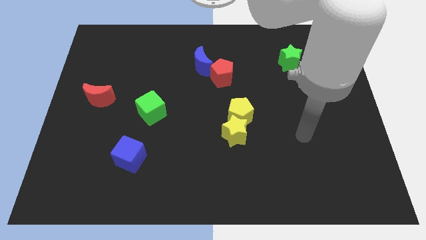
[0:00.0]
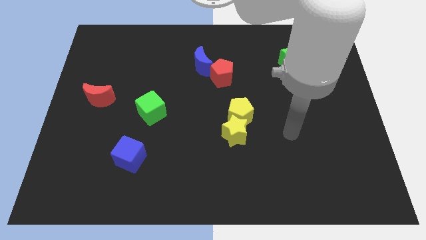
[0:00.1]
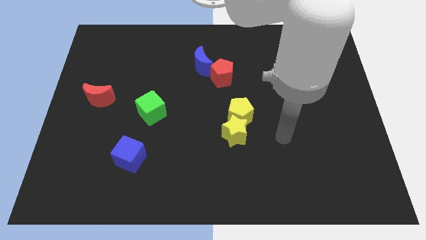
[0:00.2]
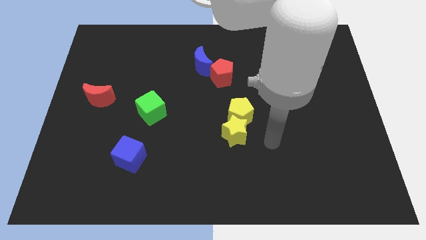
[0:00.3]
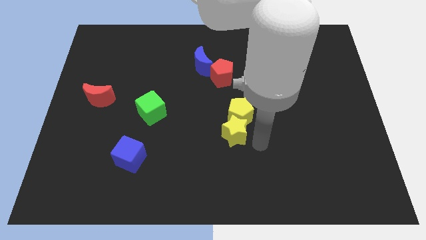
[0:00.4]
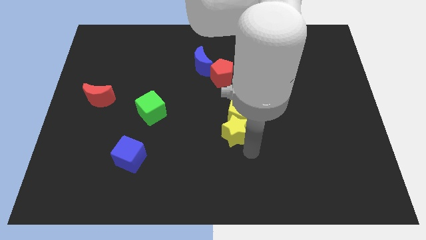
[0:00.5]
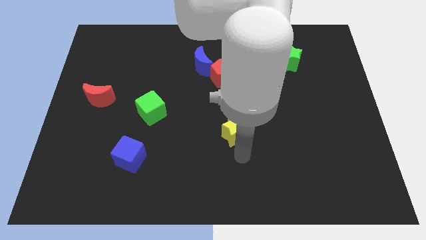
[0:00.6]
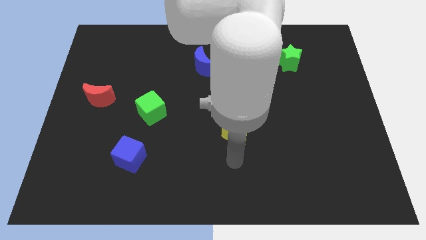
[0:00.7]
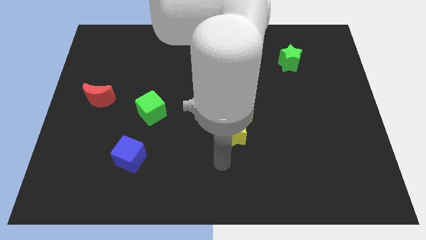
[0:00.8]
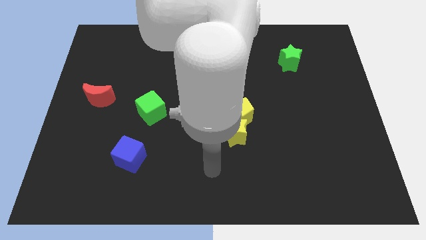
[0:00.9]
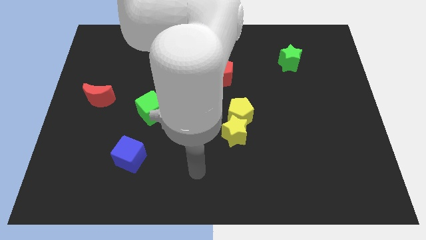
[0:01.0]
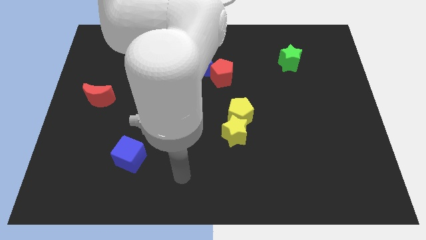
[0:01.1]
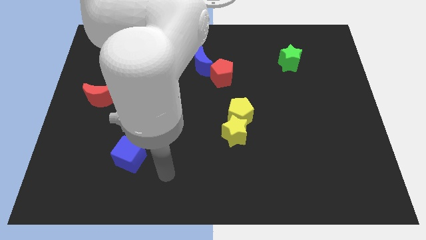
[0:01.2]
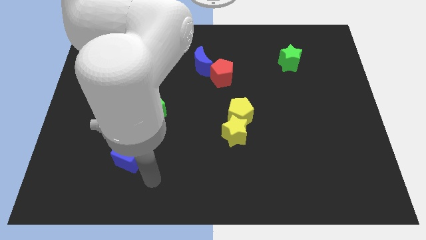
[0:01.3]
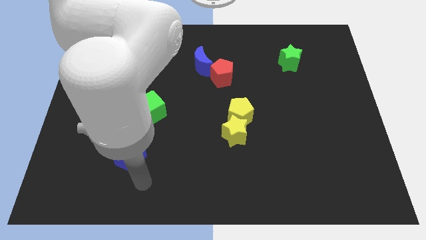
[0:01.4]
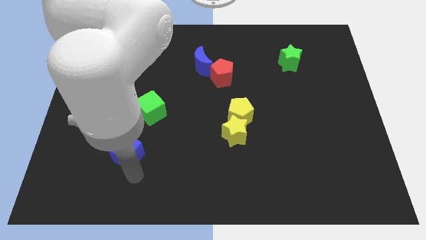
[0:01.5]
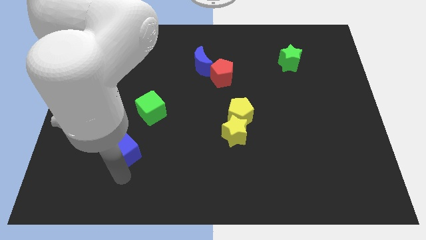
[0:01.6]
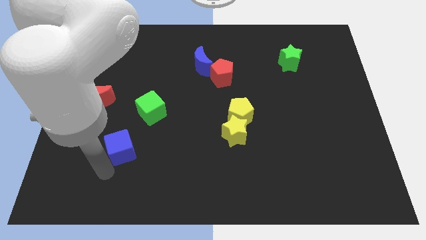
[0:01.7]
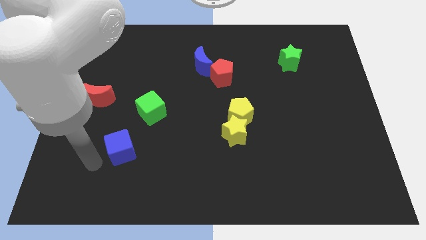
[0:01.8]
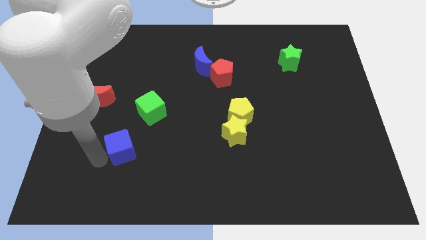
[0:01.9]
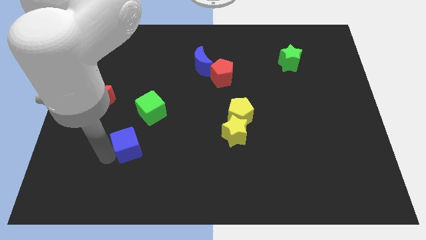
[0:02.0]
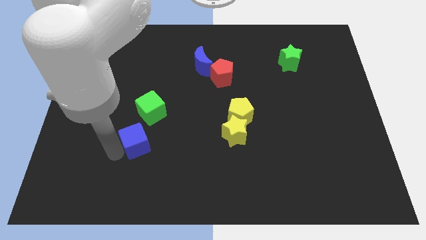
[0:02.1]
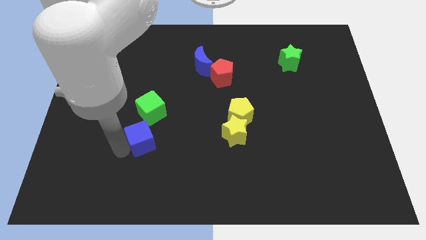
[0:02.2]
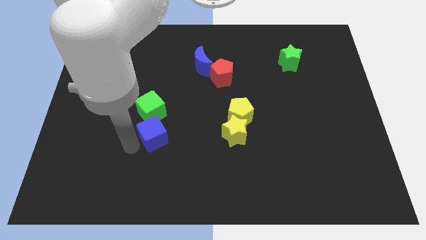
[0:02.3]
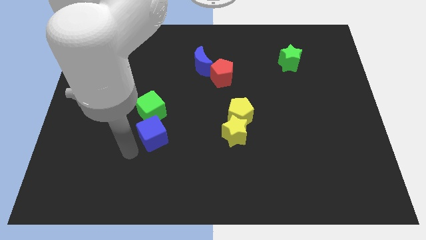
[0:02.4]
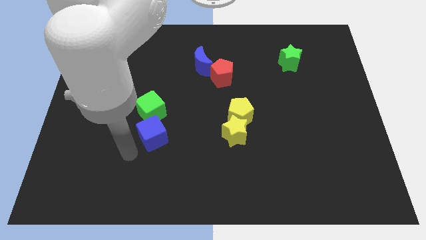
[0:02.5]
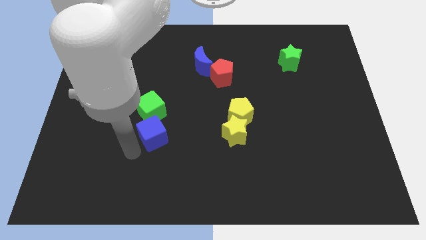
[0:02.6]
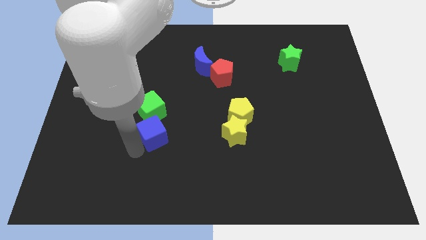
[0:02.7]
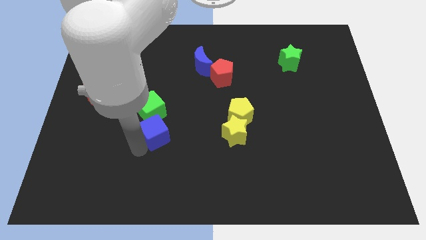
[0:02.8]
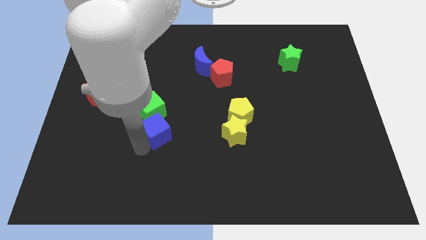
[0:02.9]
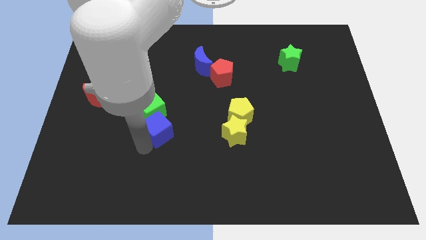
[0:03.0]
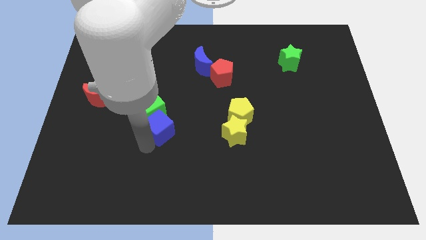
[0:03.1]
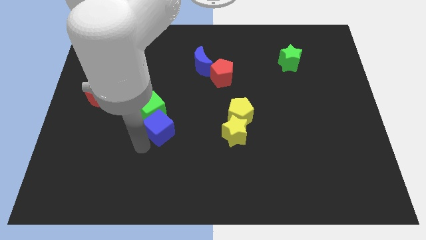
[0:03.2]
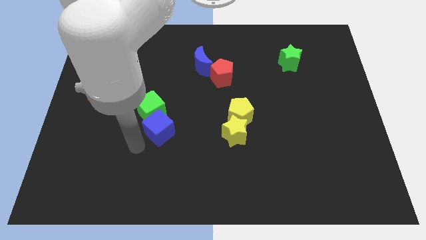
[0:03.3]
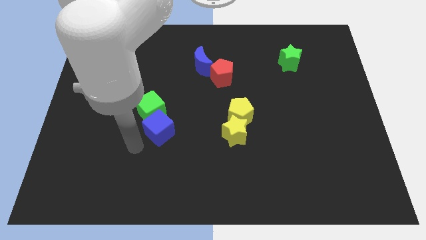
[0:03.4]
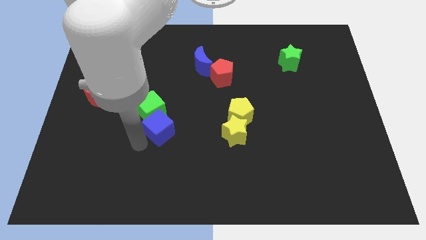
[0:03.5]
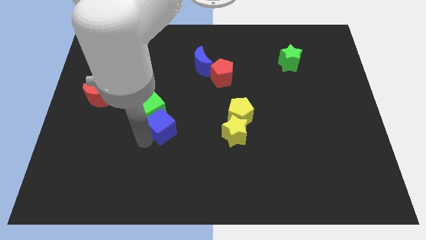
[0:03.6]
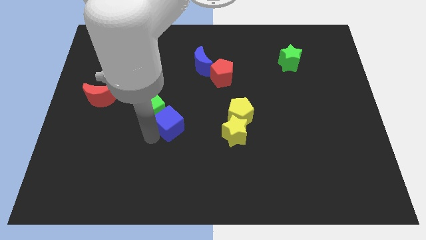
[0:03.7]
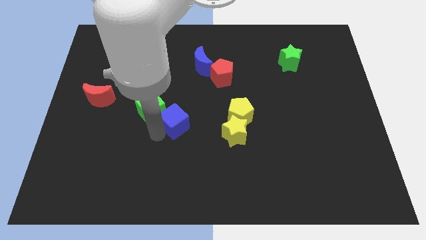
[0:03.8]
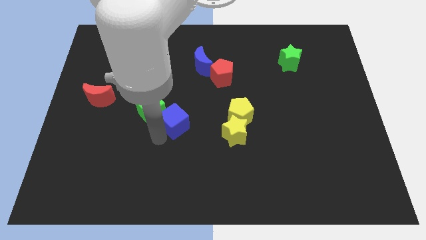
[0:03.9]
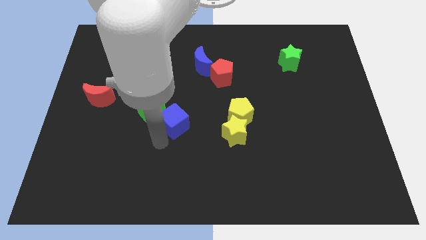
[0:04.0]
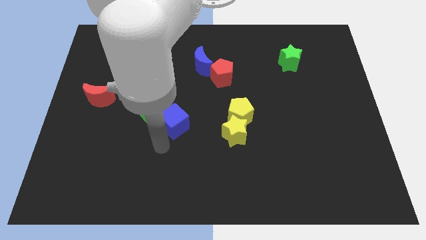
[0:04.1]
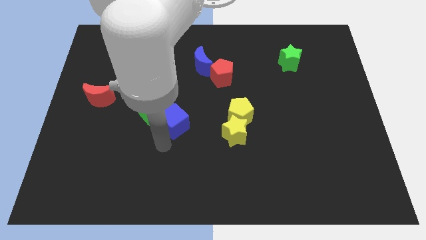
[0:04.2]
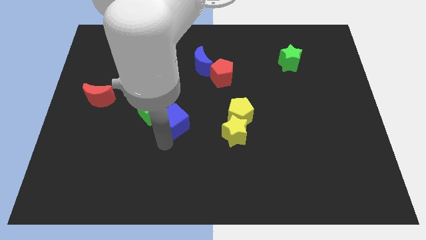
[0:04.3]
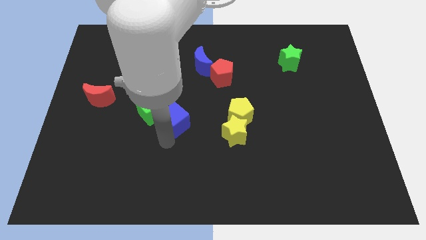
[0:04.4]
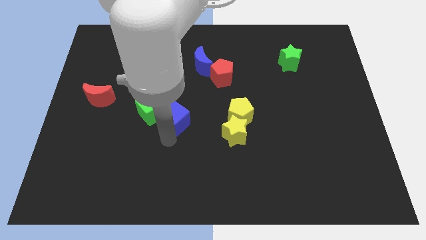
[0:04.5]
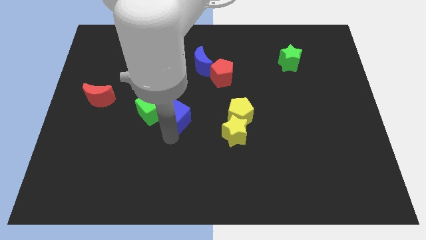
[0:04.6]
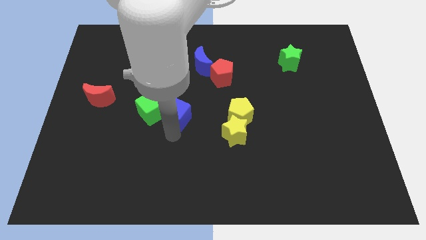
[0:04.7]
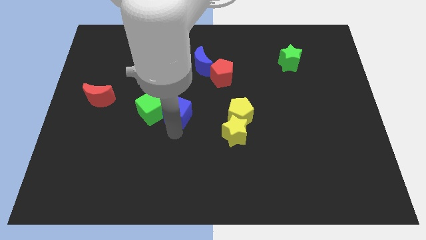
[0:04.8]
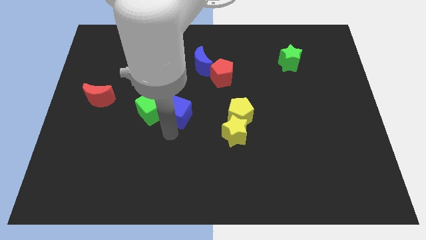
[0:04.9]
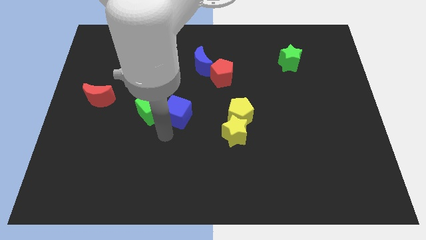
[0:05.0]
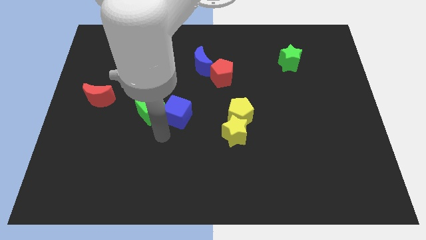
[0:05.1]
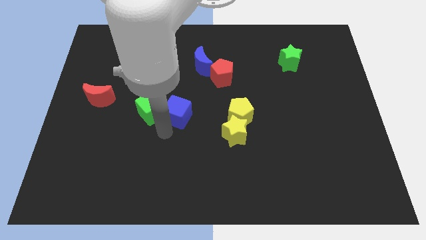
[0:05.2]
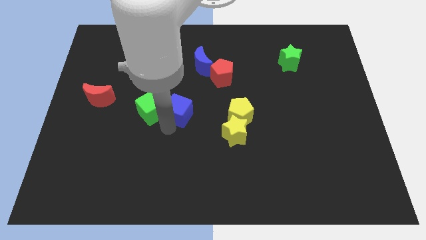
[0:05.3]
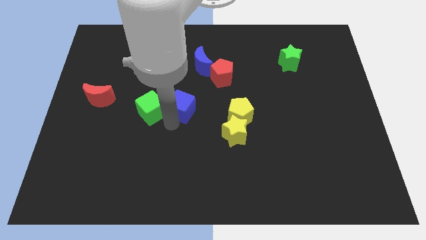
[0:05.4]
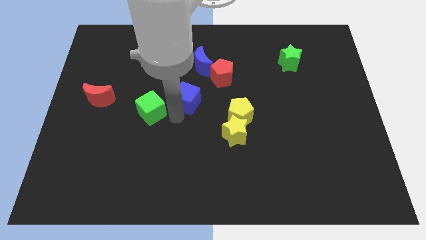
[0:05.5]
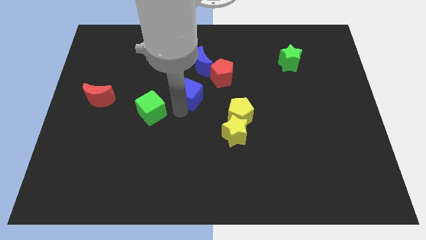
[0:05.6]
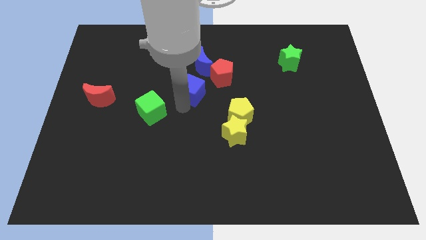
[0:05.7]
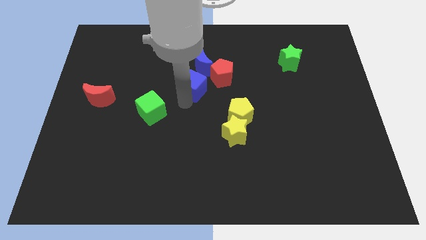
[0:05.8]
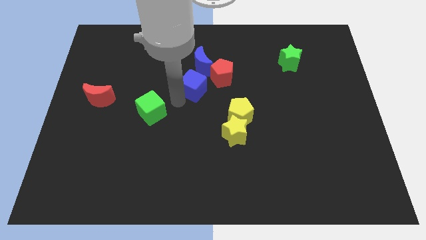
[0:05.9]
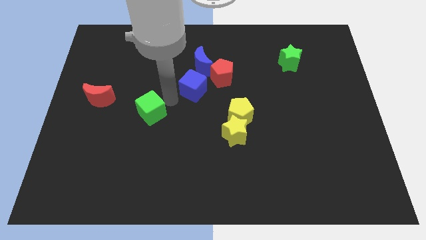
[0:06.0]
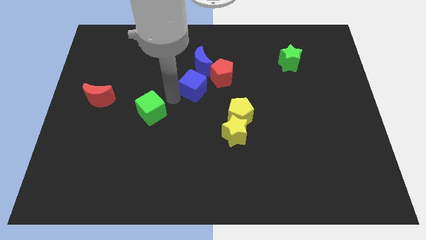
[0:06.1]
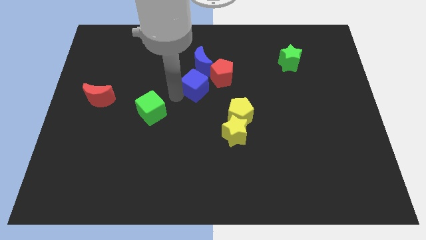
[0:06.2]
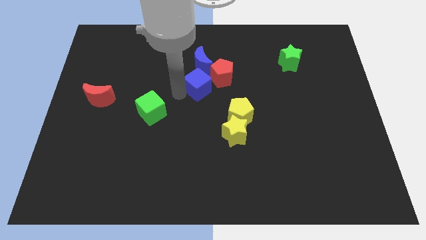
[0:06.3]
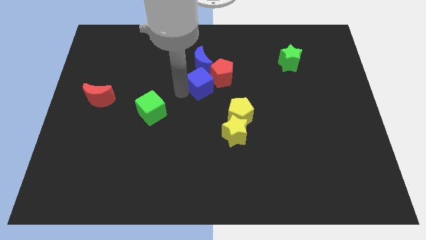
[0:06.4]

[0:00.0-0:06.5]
move the blue cube next to the red pentagon

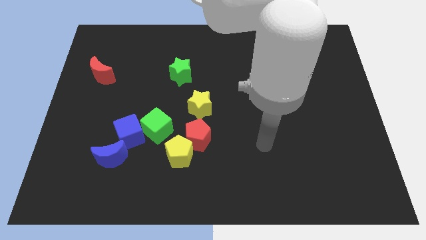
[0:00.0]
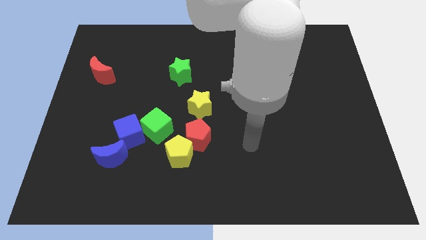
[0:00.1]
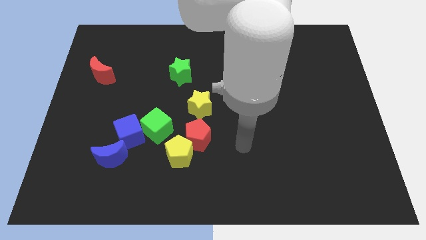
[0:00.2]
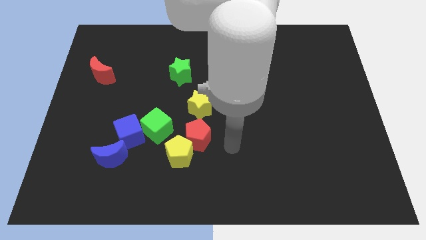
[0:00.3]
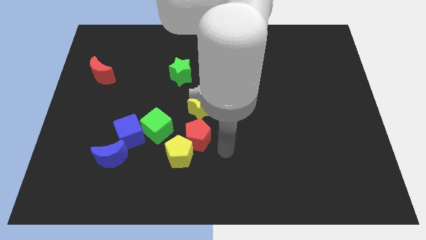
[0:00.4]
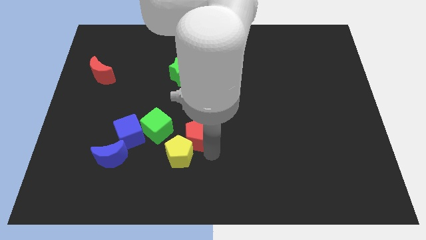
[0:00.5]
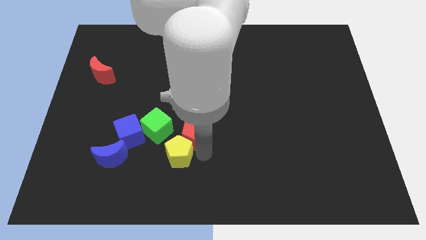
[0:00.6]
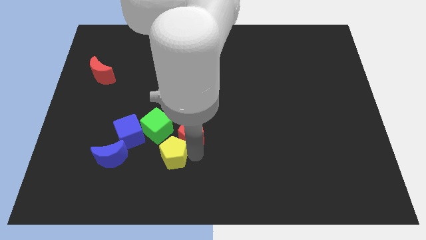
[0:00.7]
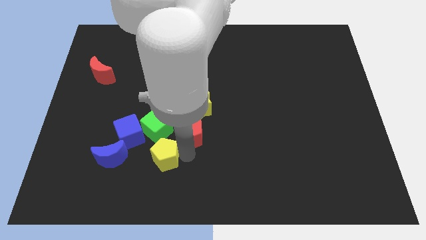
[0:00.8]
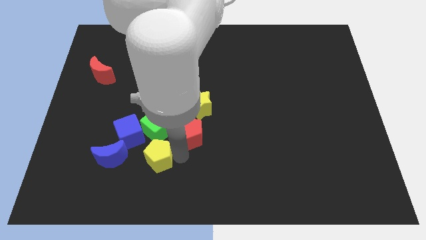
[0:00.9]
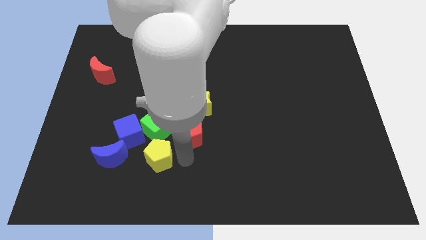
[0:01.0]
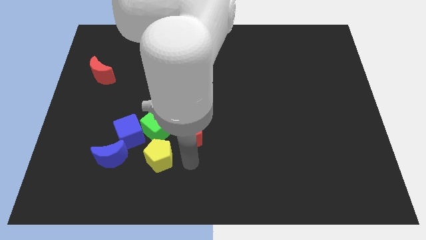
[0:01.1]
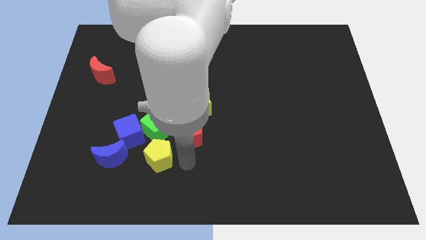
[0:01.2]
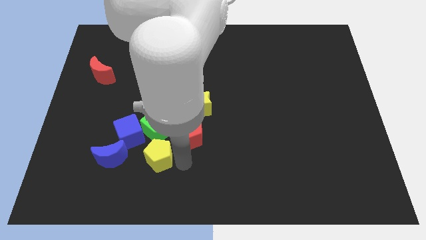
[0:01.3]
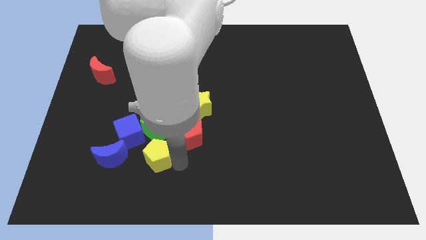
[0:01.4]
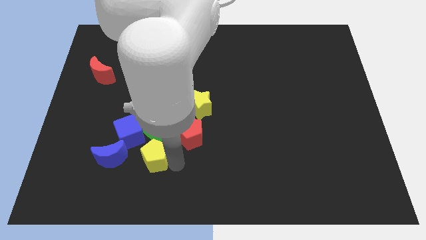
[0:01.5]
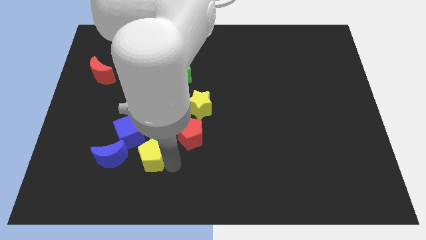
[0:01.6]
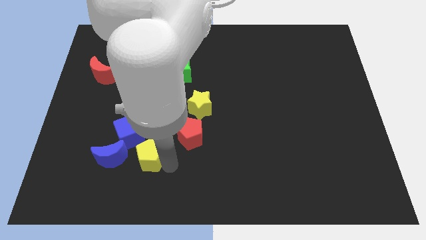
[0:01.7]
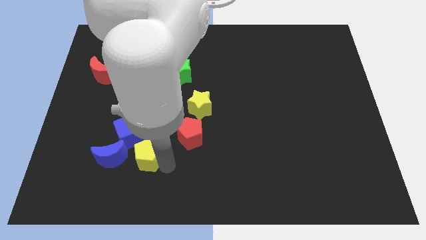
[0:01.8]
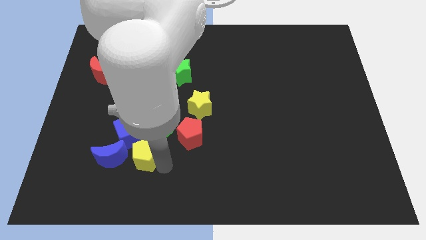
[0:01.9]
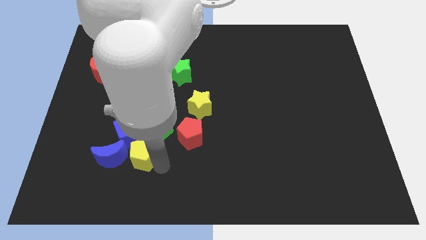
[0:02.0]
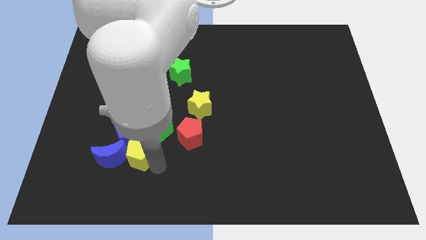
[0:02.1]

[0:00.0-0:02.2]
slide the yellow pentagon close to the blue moon
